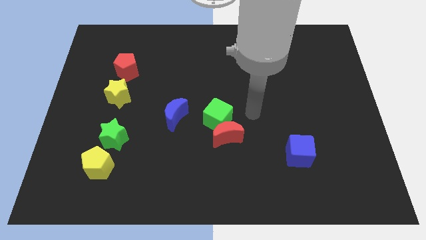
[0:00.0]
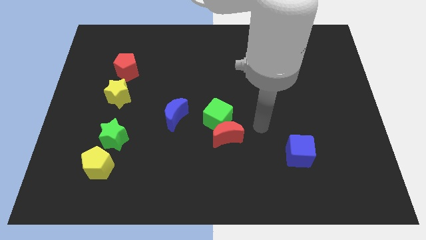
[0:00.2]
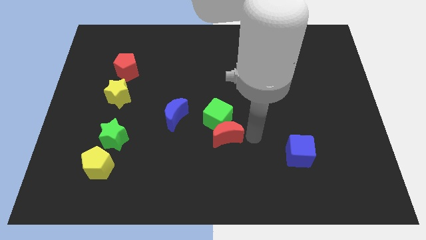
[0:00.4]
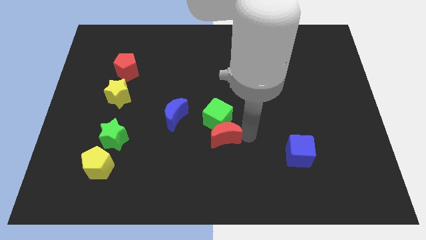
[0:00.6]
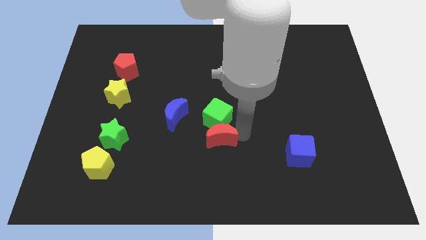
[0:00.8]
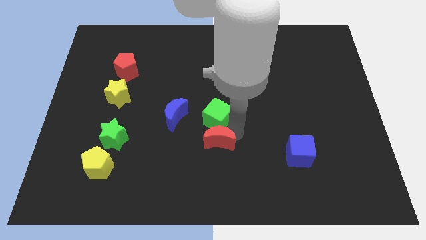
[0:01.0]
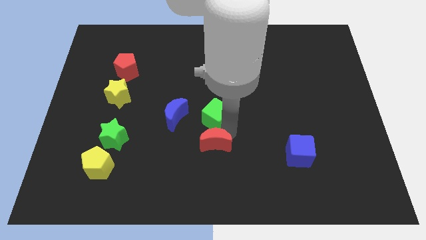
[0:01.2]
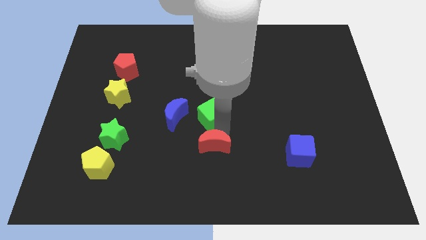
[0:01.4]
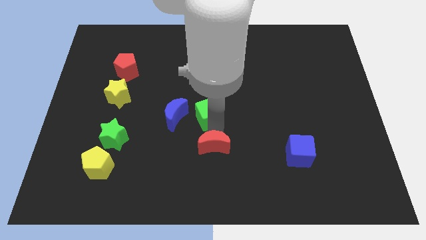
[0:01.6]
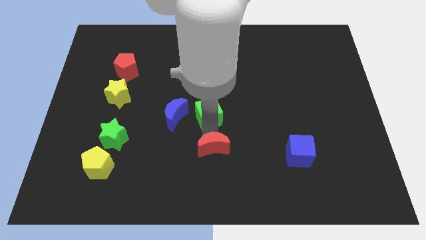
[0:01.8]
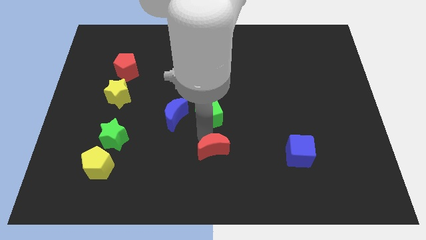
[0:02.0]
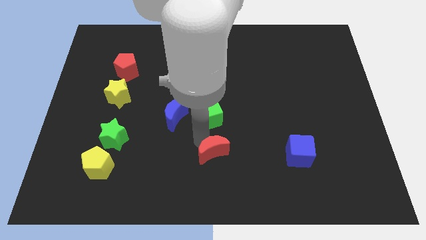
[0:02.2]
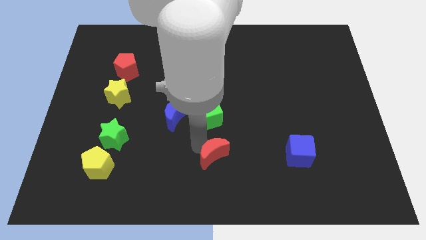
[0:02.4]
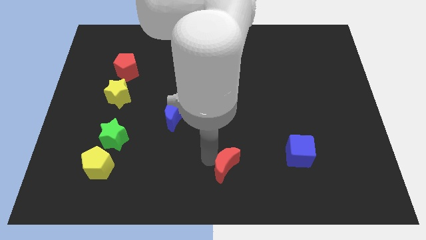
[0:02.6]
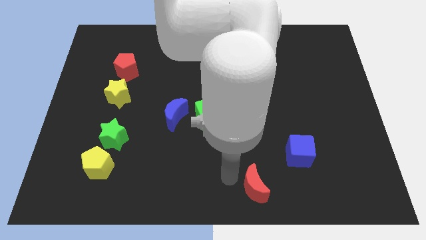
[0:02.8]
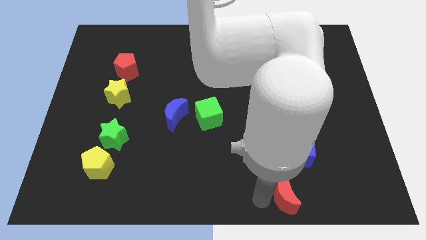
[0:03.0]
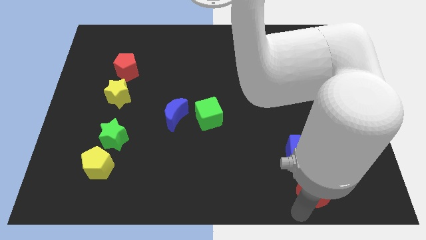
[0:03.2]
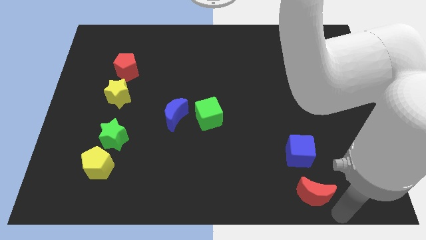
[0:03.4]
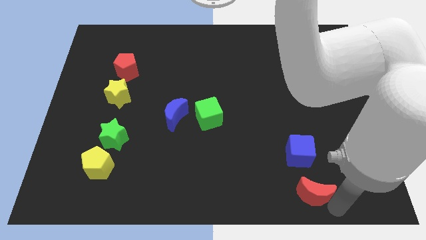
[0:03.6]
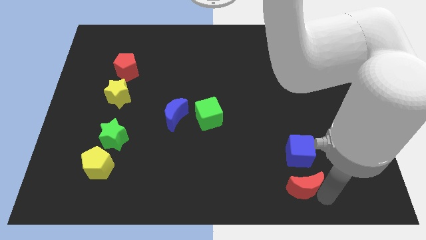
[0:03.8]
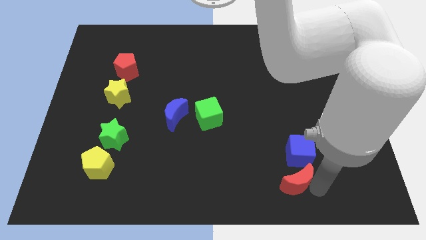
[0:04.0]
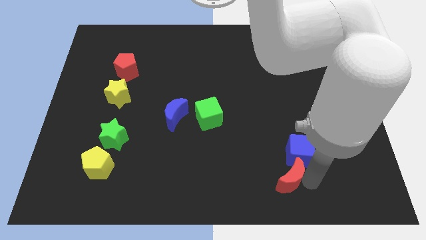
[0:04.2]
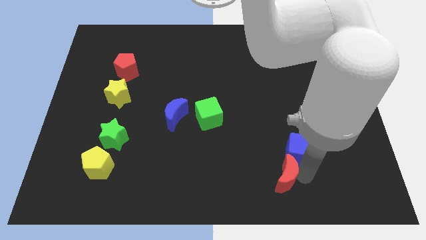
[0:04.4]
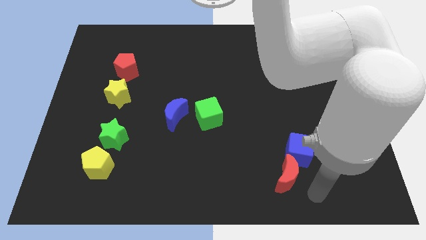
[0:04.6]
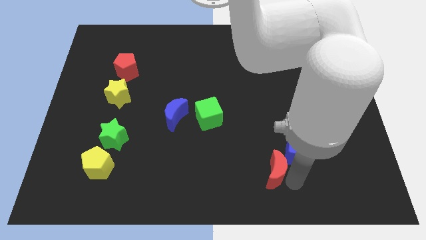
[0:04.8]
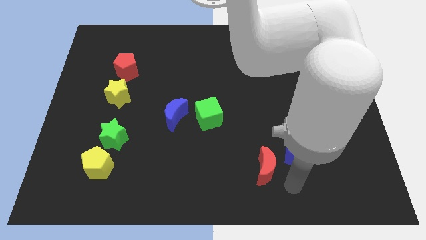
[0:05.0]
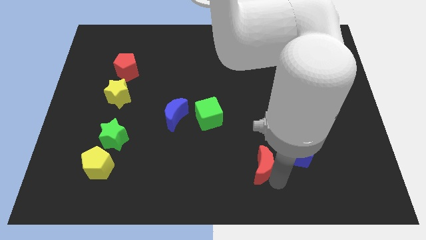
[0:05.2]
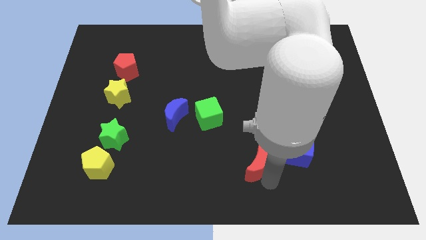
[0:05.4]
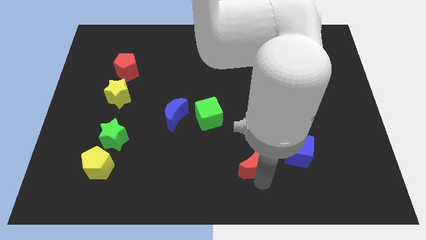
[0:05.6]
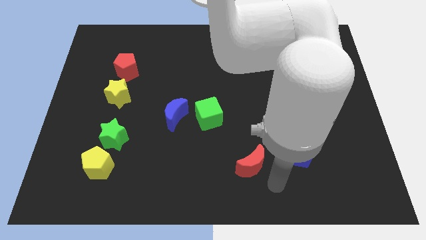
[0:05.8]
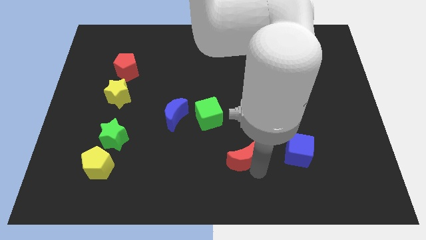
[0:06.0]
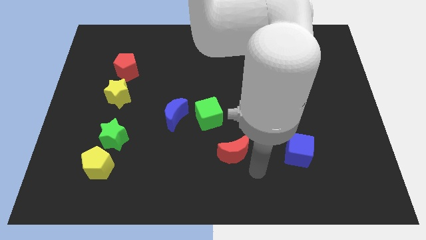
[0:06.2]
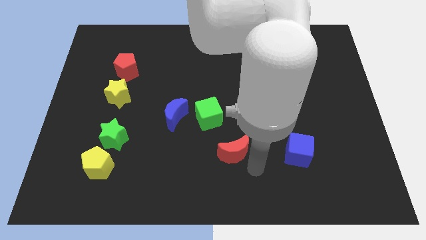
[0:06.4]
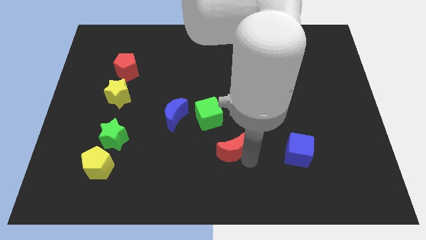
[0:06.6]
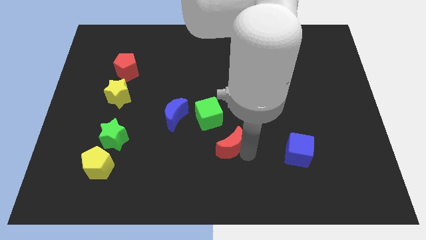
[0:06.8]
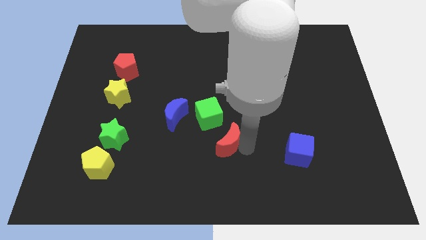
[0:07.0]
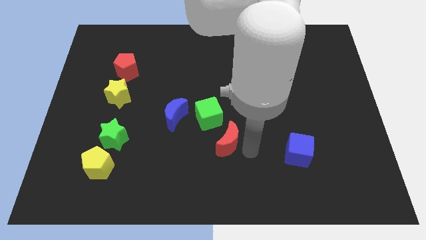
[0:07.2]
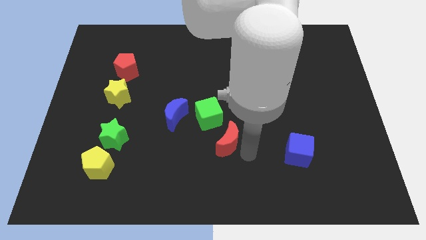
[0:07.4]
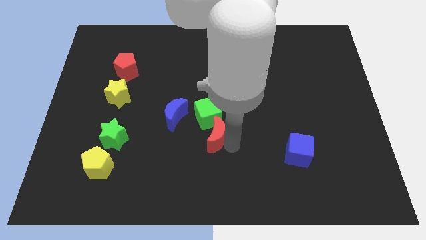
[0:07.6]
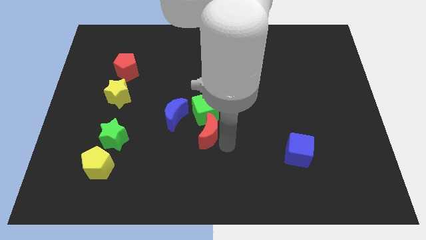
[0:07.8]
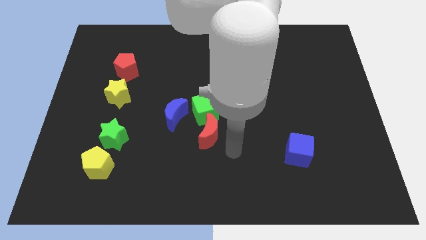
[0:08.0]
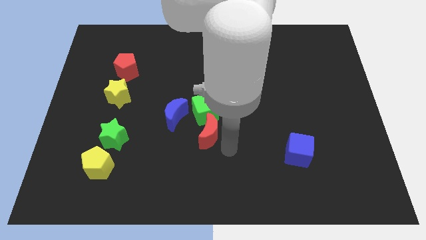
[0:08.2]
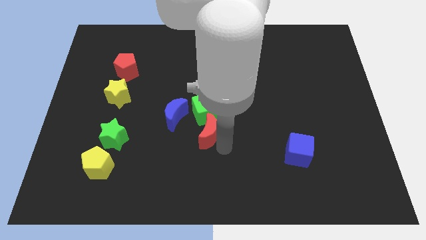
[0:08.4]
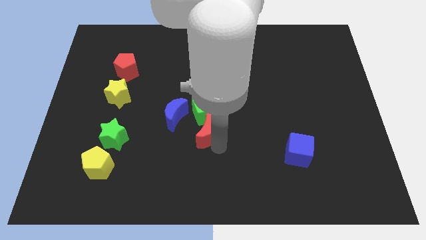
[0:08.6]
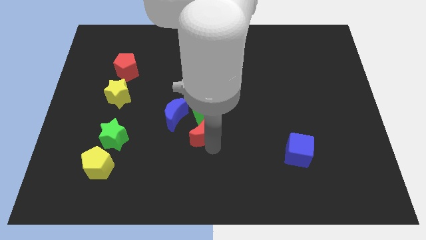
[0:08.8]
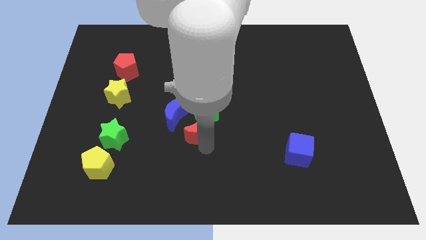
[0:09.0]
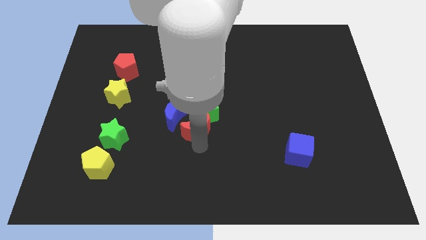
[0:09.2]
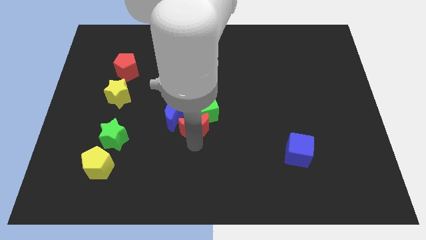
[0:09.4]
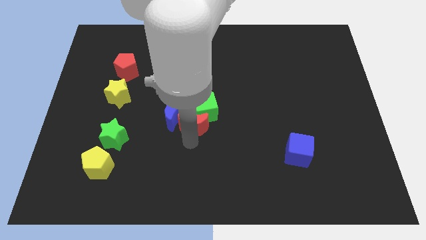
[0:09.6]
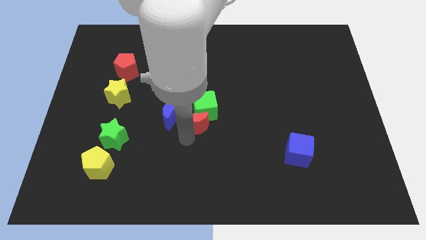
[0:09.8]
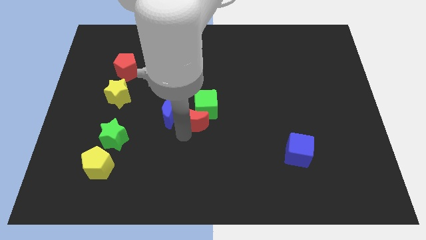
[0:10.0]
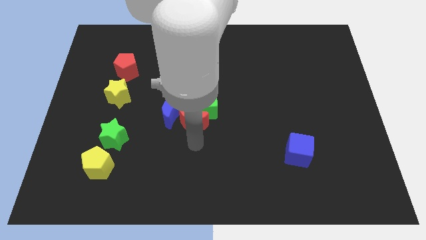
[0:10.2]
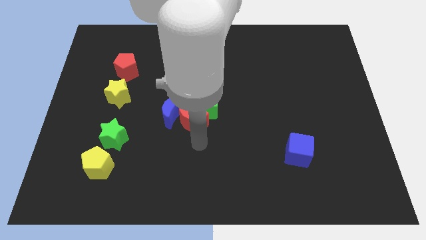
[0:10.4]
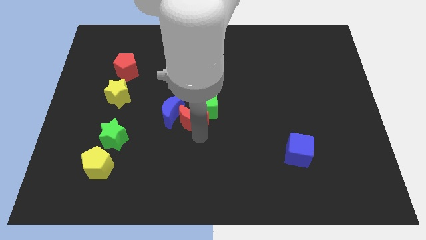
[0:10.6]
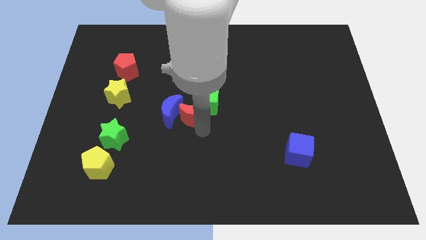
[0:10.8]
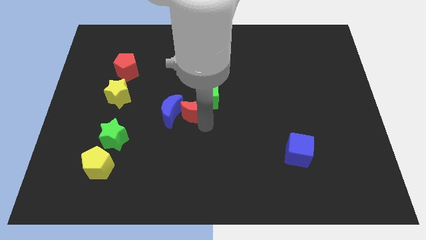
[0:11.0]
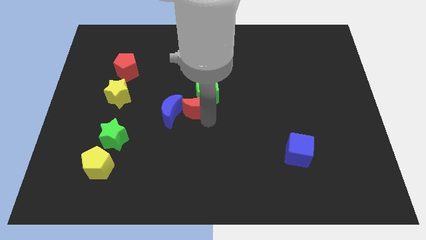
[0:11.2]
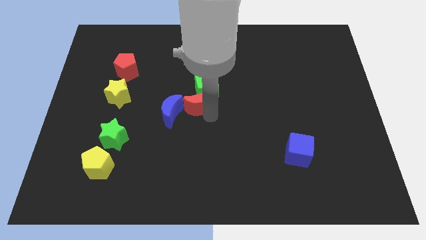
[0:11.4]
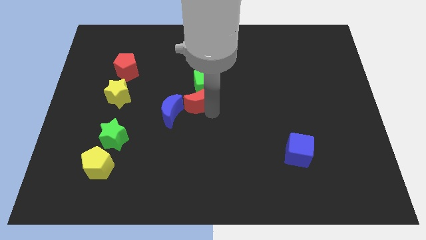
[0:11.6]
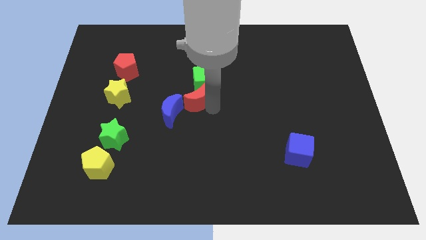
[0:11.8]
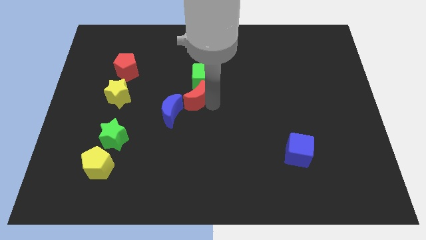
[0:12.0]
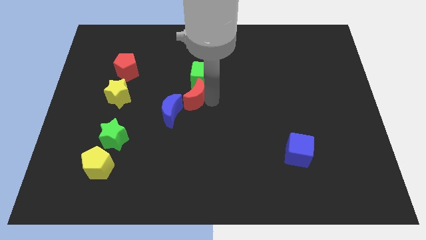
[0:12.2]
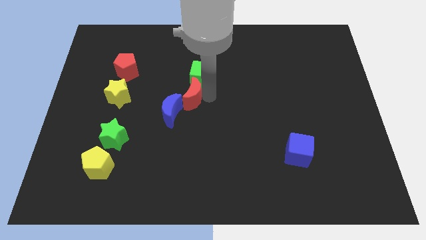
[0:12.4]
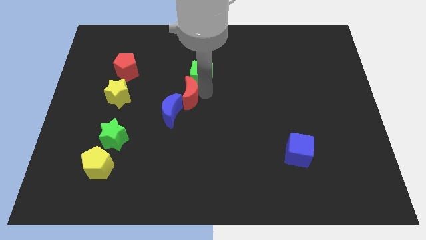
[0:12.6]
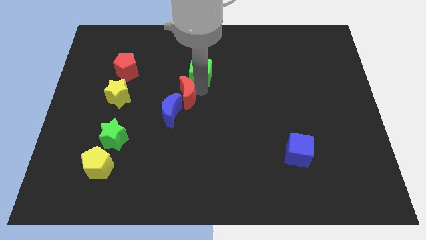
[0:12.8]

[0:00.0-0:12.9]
push the red moon just right of the yellow star

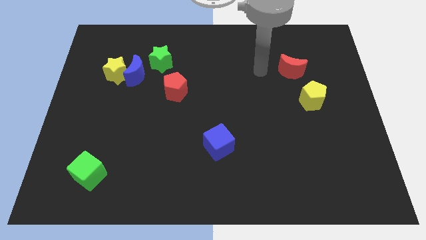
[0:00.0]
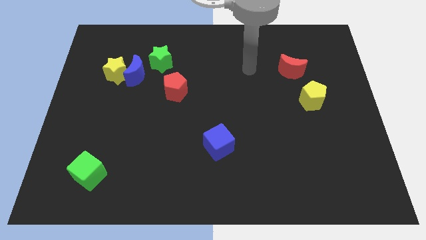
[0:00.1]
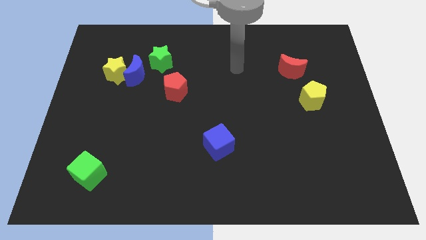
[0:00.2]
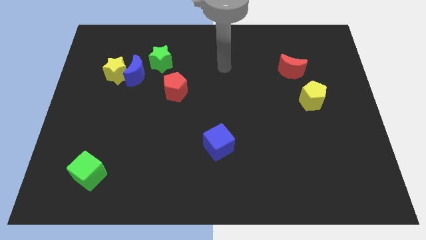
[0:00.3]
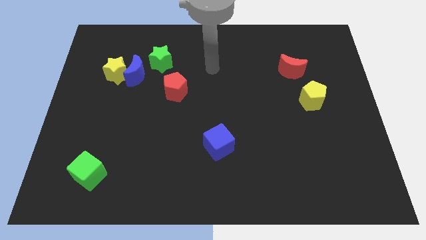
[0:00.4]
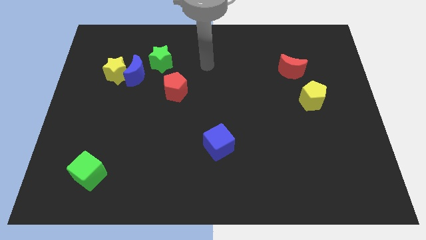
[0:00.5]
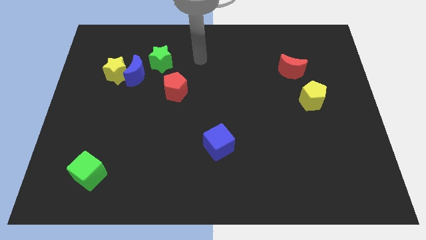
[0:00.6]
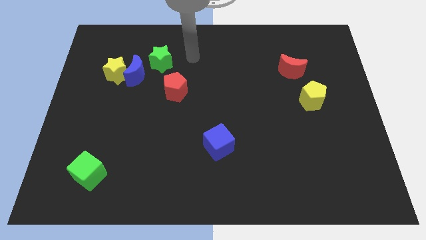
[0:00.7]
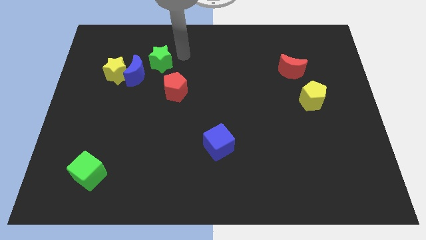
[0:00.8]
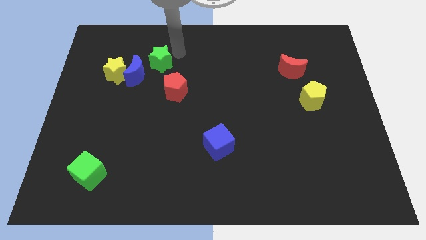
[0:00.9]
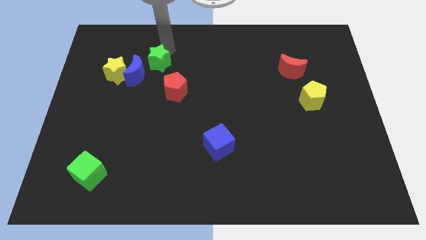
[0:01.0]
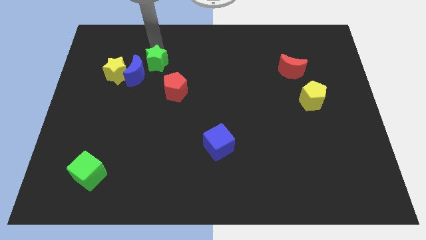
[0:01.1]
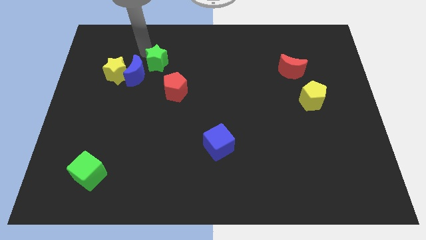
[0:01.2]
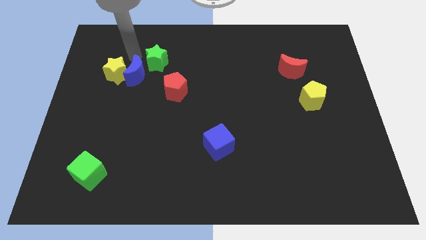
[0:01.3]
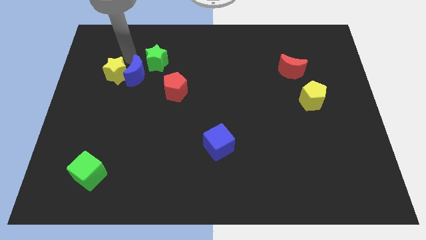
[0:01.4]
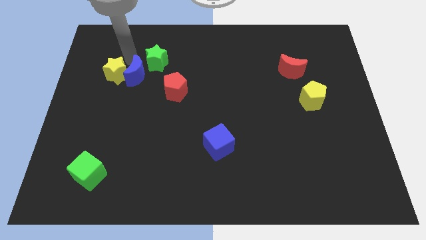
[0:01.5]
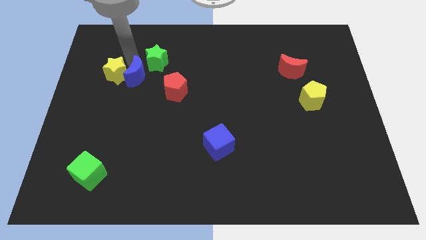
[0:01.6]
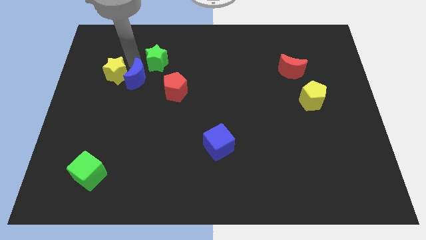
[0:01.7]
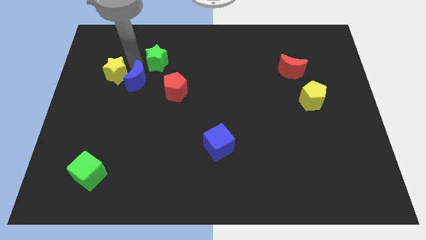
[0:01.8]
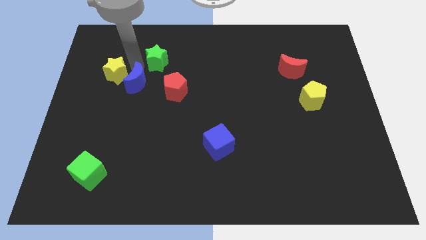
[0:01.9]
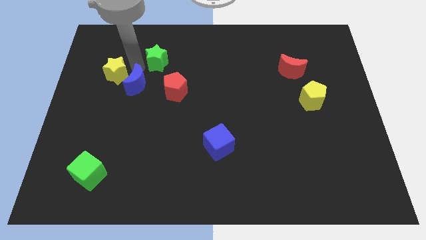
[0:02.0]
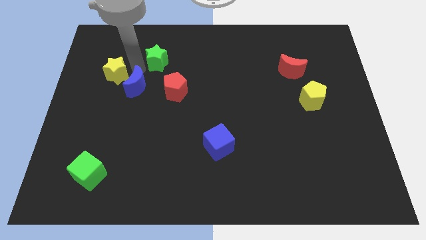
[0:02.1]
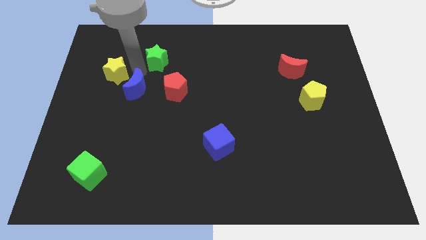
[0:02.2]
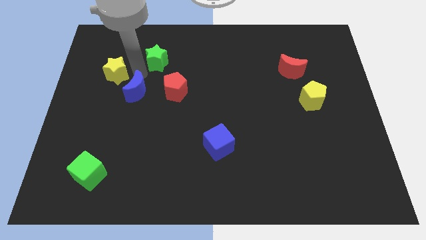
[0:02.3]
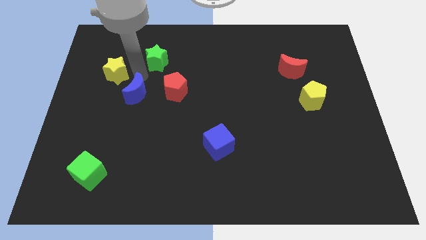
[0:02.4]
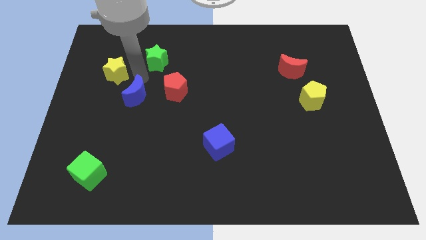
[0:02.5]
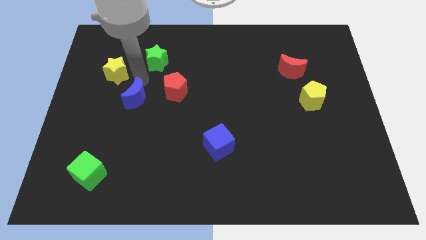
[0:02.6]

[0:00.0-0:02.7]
slide the blue moon diagonally down and to the left of the red pentagon
